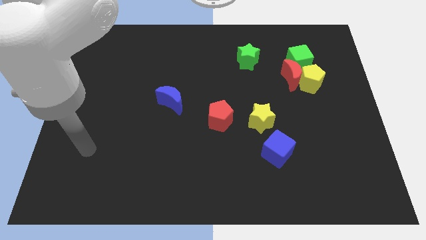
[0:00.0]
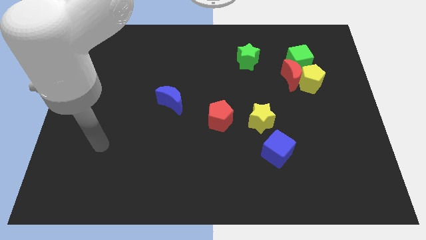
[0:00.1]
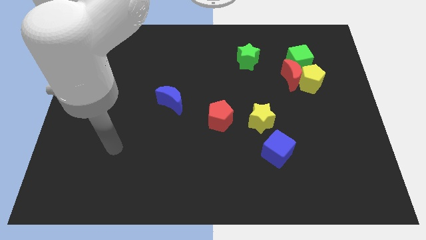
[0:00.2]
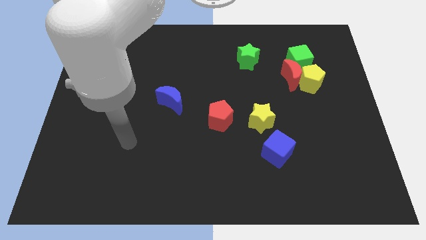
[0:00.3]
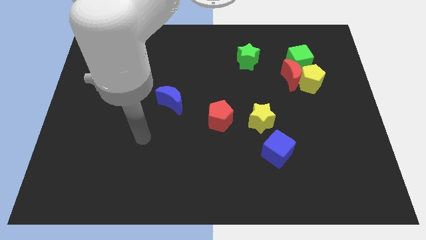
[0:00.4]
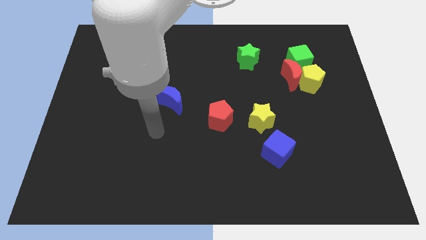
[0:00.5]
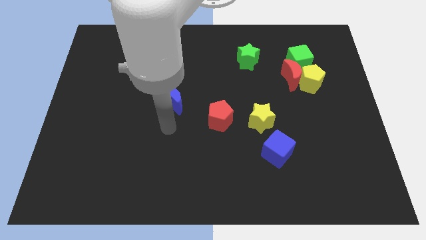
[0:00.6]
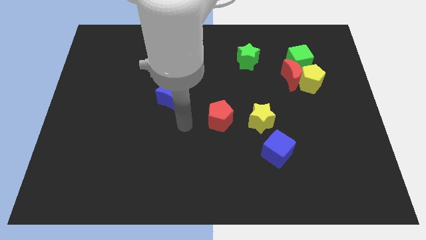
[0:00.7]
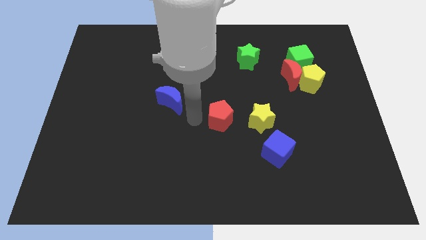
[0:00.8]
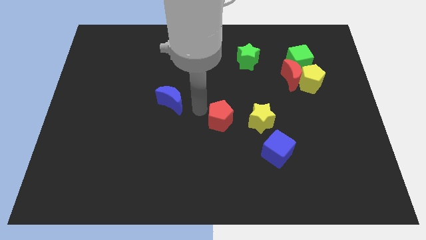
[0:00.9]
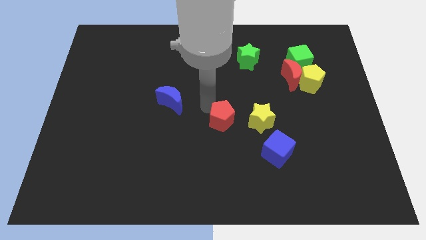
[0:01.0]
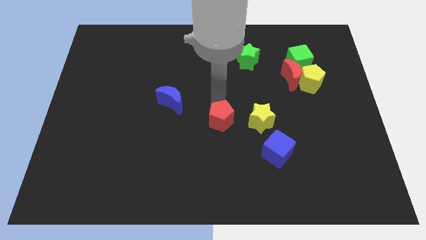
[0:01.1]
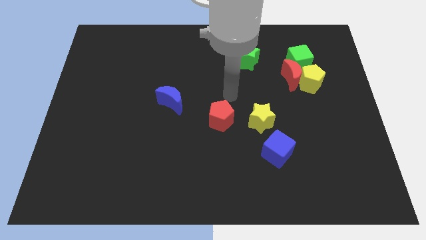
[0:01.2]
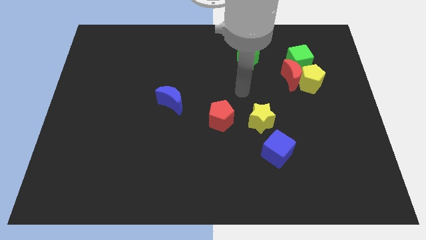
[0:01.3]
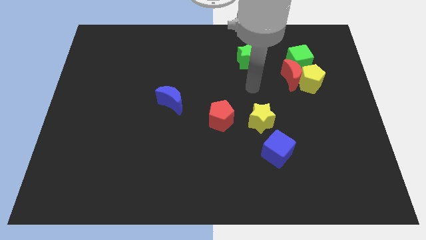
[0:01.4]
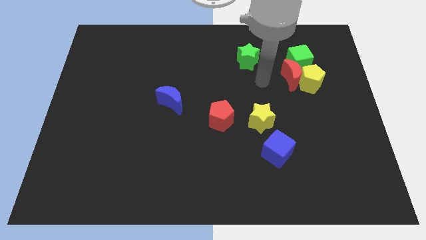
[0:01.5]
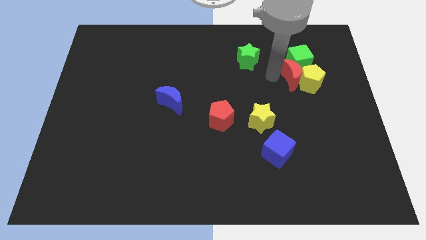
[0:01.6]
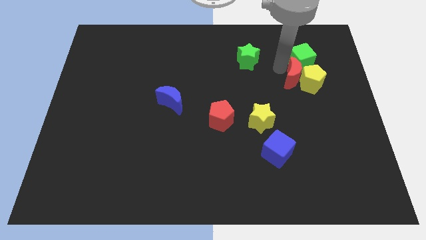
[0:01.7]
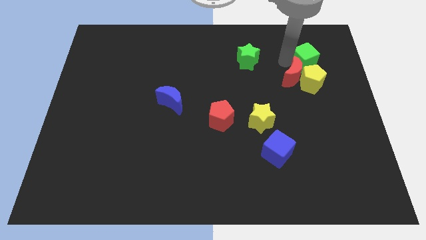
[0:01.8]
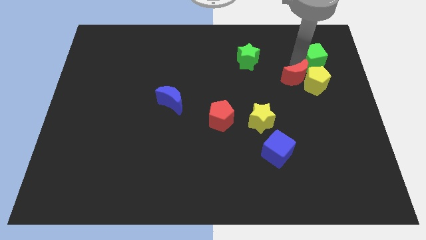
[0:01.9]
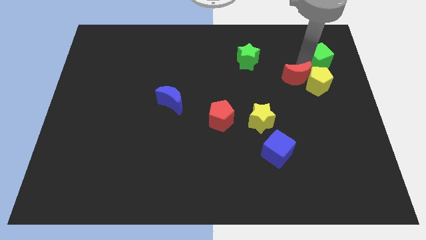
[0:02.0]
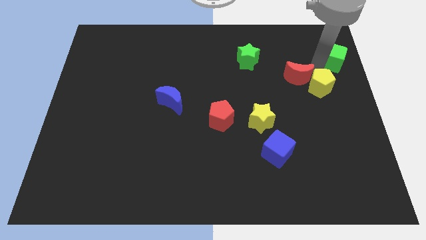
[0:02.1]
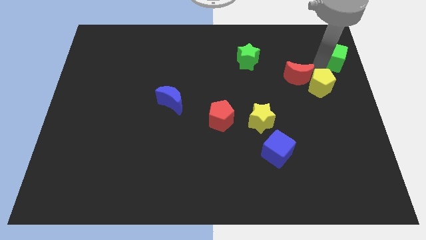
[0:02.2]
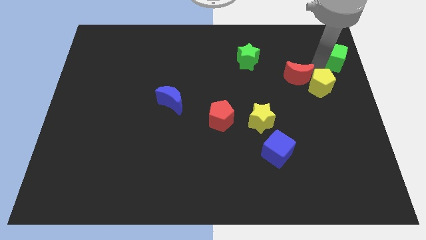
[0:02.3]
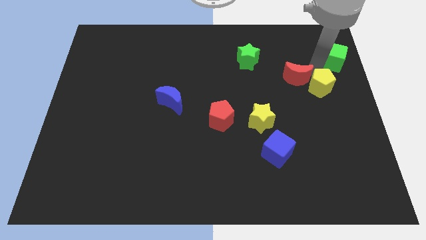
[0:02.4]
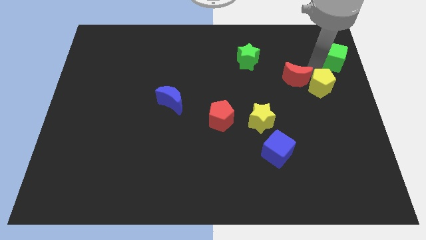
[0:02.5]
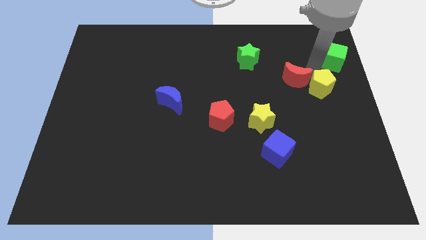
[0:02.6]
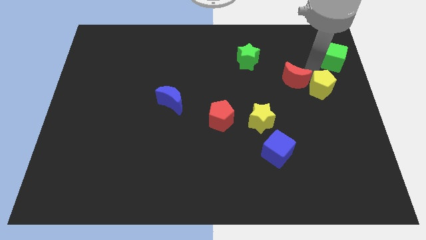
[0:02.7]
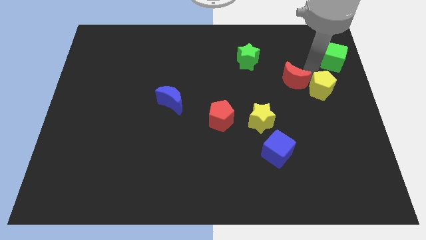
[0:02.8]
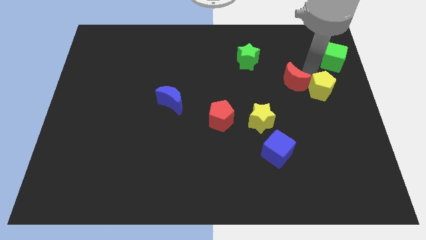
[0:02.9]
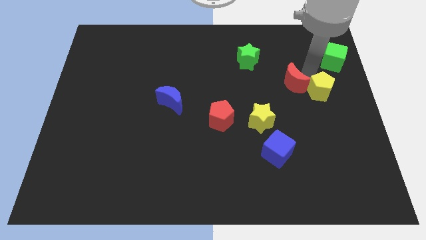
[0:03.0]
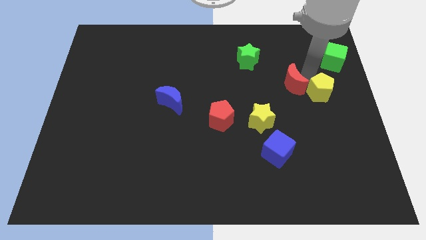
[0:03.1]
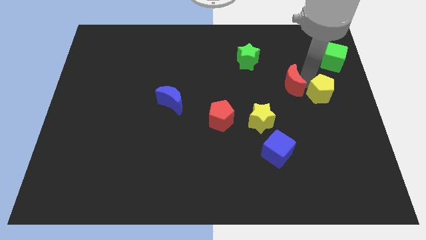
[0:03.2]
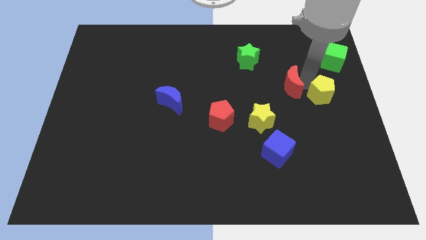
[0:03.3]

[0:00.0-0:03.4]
pull the red moon apart from the yellow pentagon and green cube

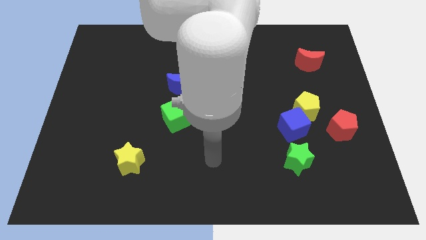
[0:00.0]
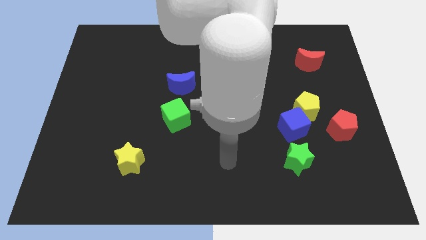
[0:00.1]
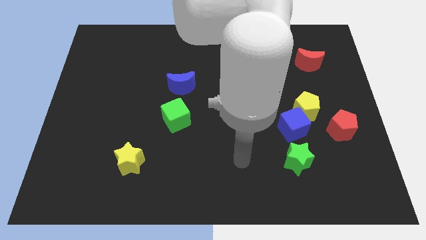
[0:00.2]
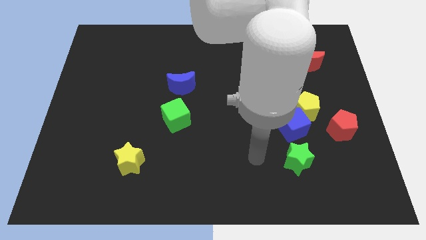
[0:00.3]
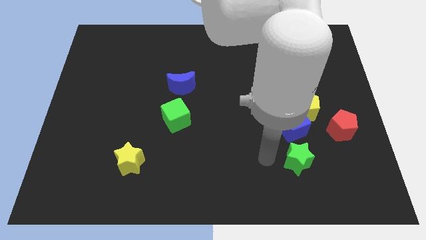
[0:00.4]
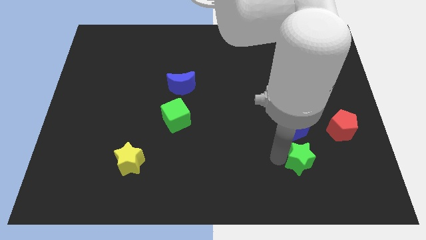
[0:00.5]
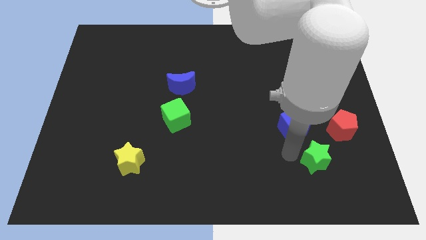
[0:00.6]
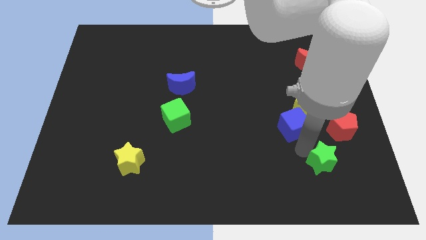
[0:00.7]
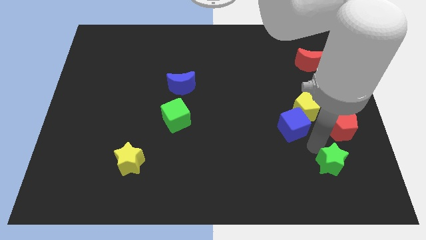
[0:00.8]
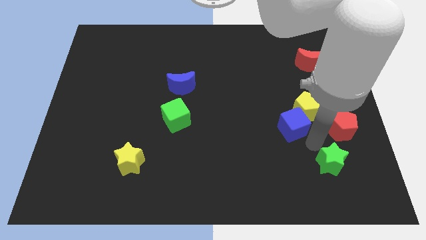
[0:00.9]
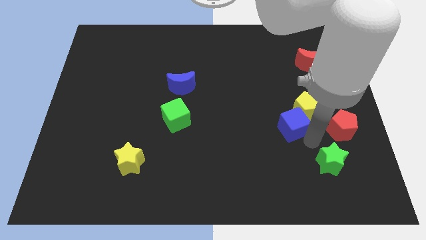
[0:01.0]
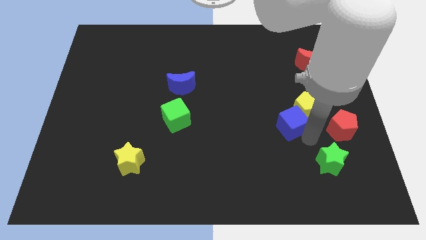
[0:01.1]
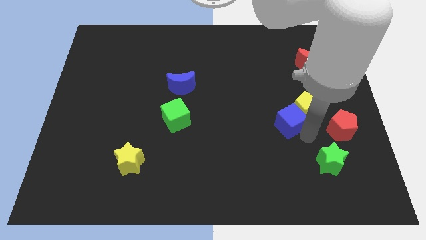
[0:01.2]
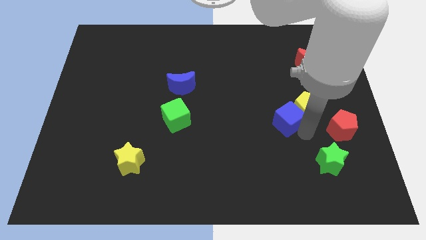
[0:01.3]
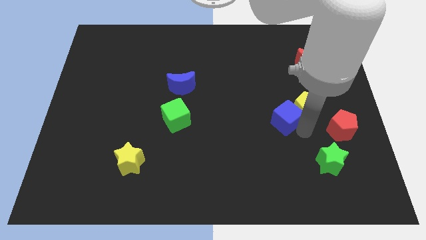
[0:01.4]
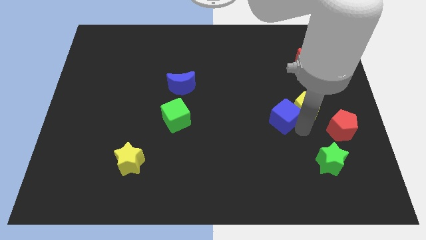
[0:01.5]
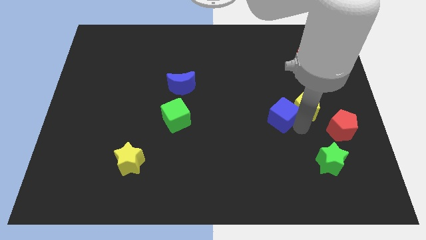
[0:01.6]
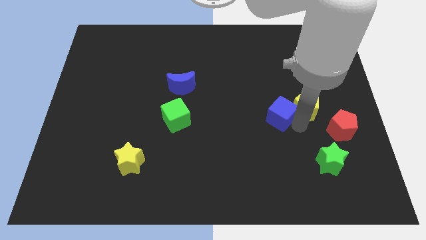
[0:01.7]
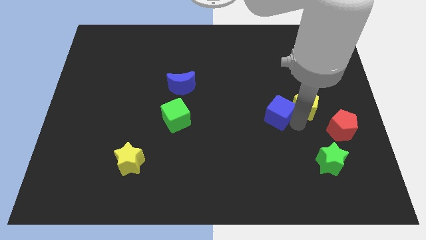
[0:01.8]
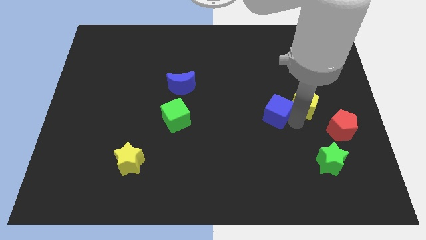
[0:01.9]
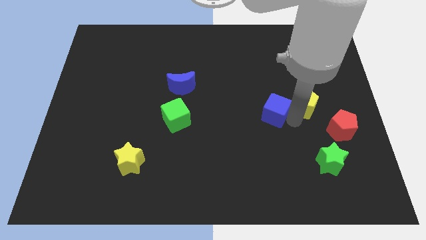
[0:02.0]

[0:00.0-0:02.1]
move the blue cube away from the yellow pentagon and green star

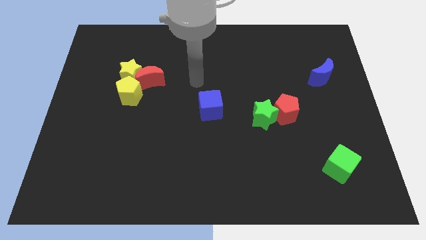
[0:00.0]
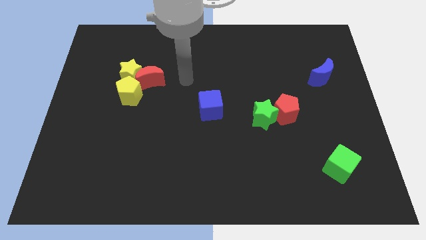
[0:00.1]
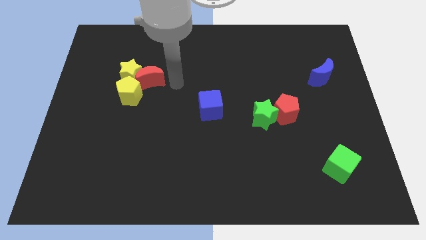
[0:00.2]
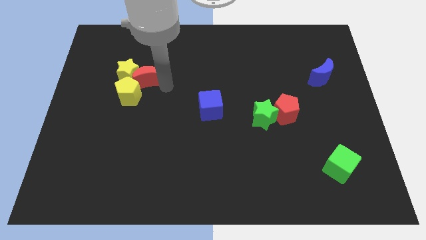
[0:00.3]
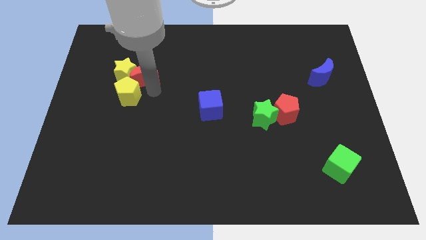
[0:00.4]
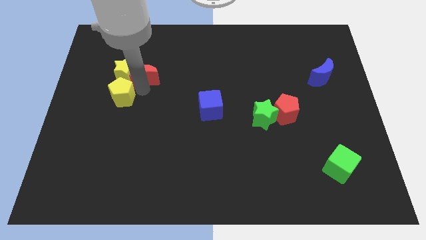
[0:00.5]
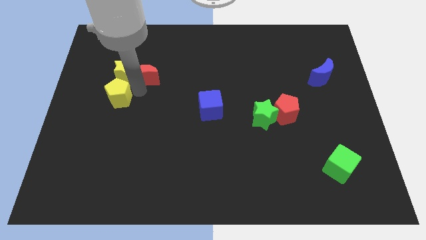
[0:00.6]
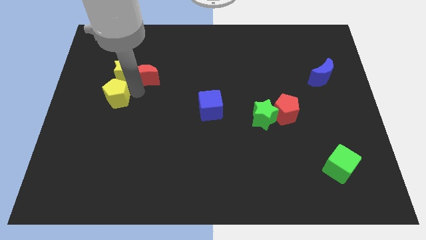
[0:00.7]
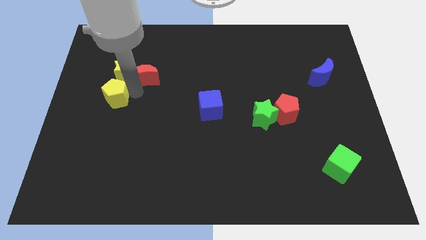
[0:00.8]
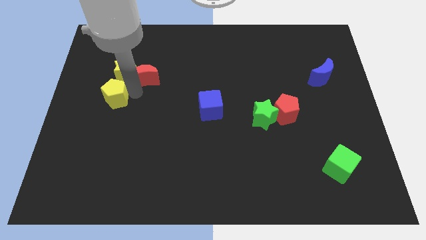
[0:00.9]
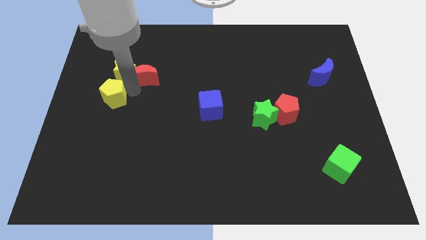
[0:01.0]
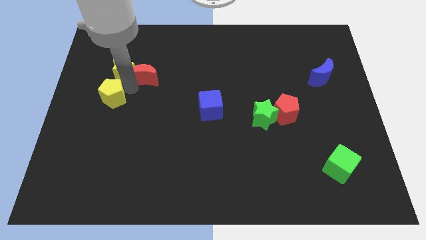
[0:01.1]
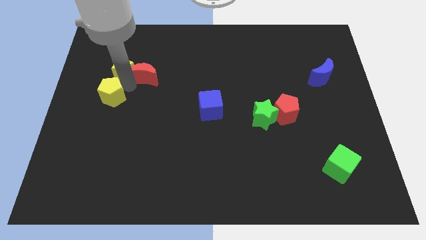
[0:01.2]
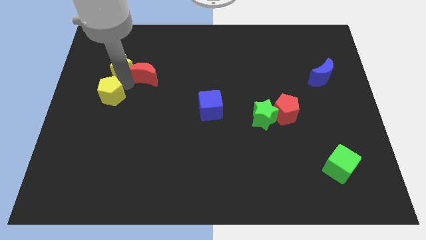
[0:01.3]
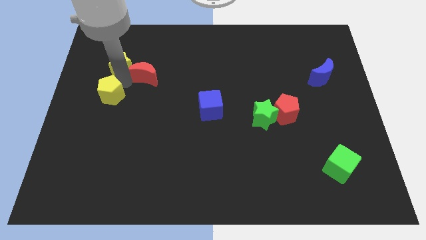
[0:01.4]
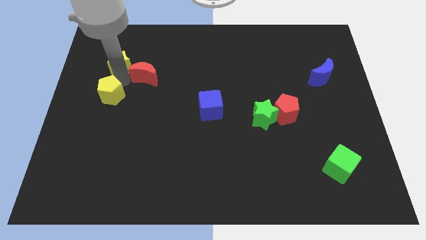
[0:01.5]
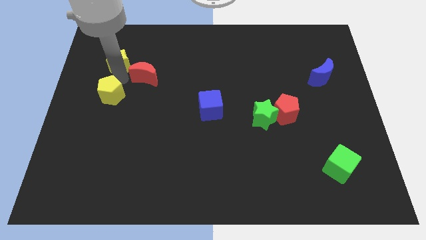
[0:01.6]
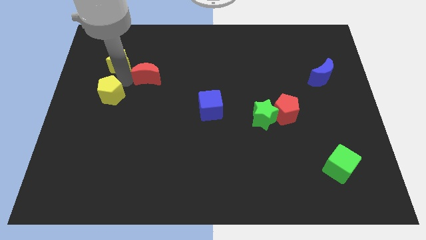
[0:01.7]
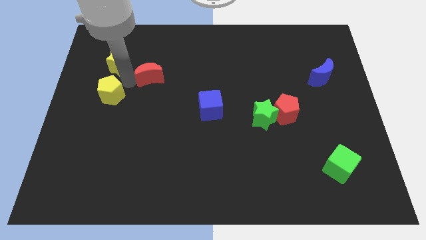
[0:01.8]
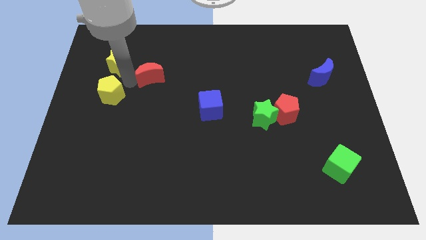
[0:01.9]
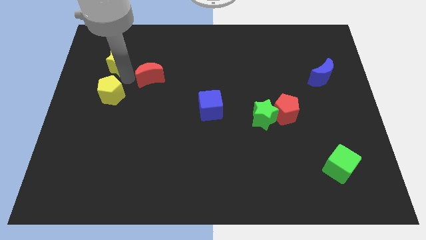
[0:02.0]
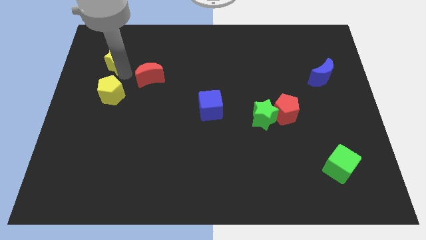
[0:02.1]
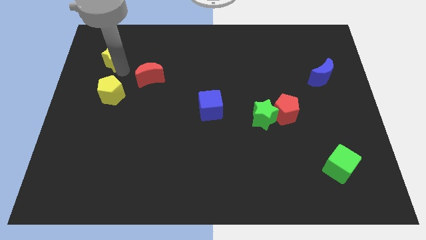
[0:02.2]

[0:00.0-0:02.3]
separate the yellow star from the red moon and yellow pentagon

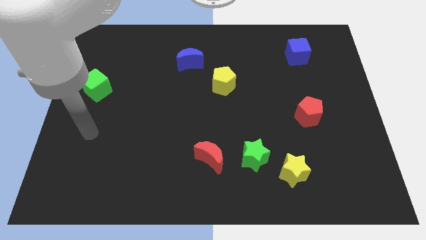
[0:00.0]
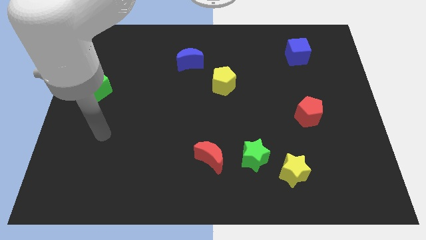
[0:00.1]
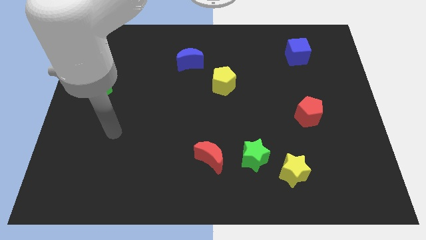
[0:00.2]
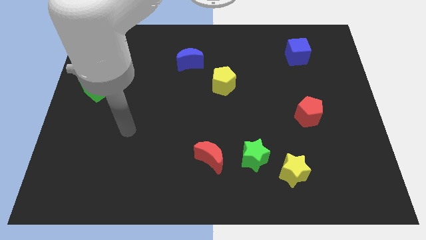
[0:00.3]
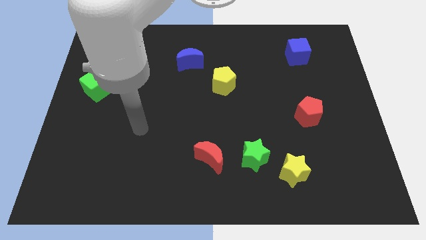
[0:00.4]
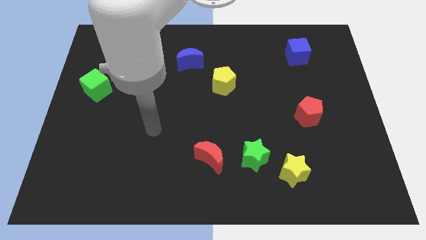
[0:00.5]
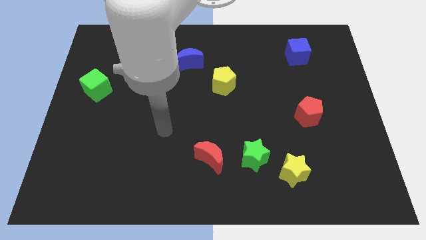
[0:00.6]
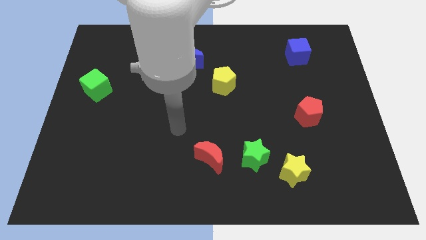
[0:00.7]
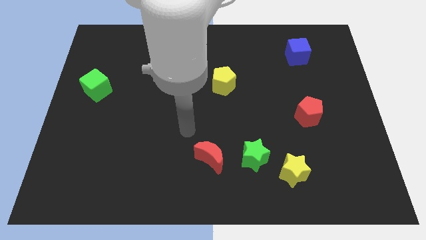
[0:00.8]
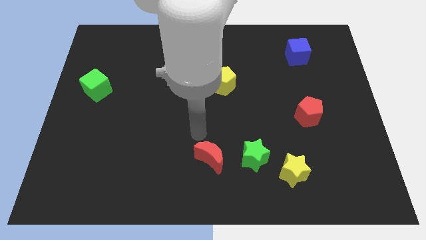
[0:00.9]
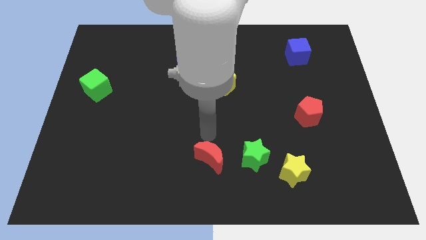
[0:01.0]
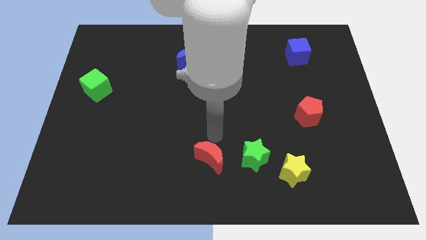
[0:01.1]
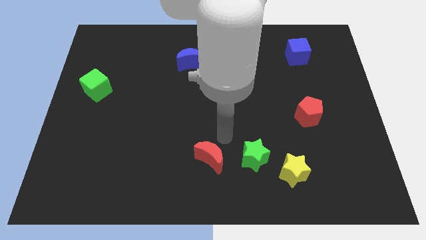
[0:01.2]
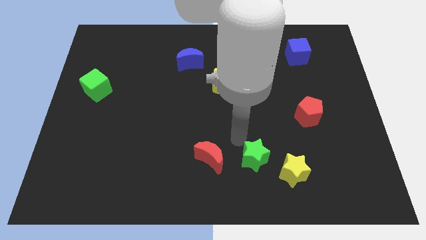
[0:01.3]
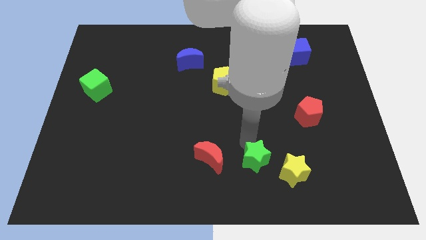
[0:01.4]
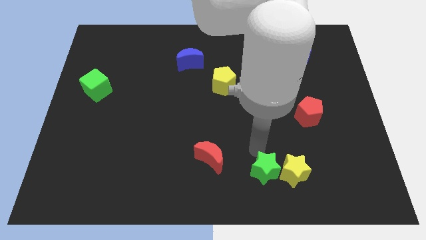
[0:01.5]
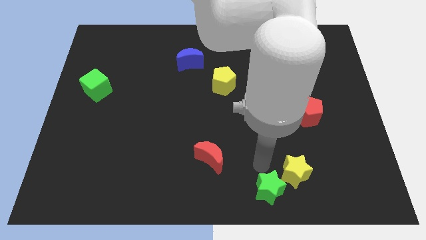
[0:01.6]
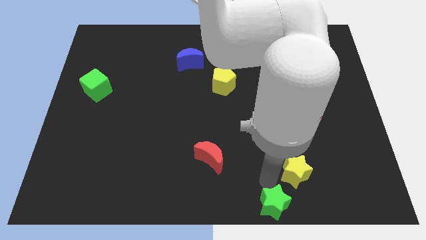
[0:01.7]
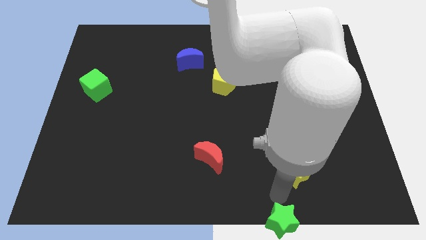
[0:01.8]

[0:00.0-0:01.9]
separate the yellow star from the green star
